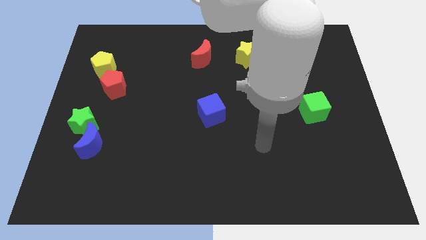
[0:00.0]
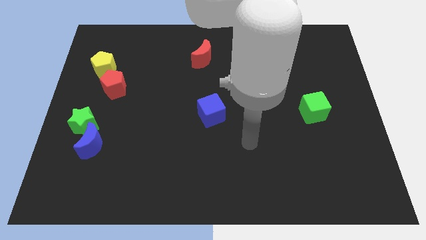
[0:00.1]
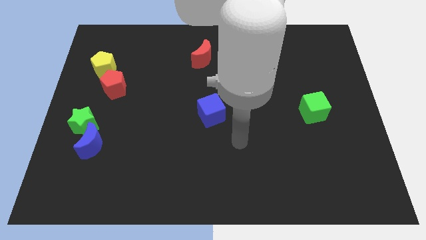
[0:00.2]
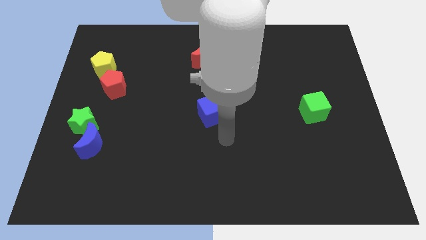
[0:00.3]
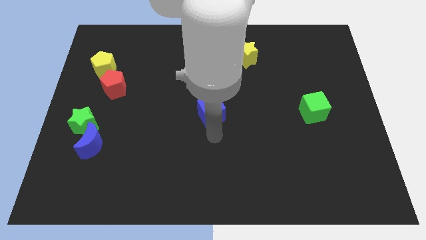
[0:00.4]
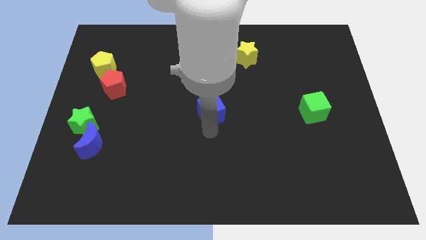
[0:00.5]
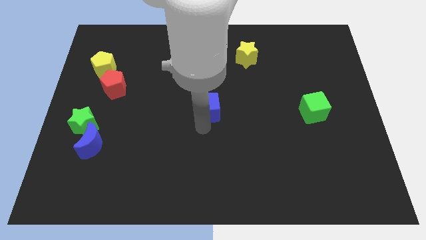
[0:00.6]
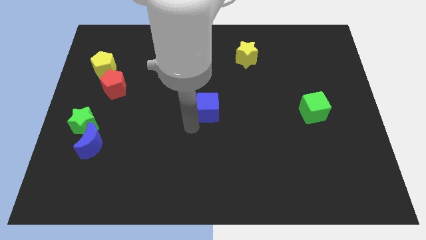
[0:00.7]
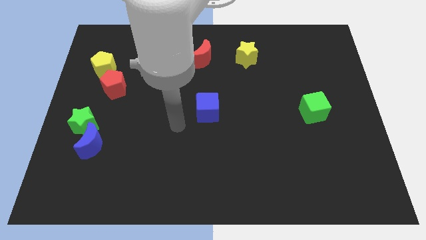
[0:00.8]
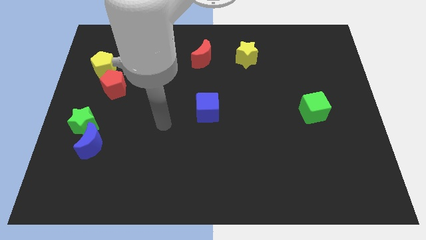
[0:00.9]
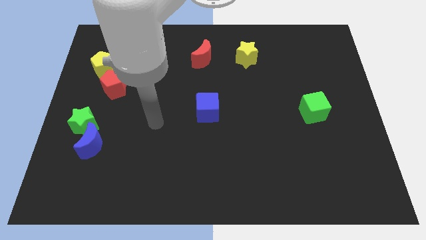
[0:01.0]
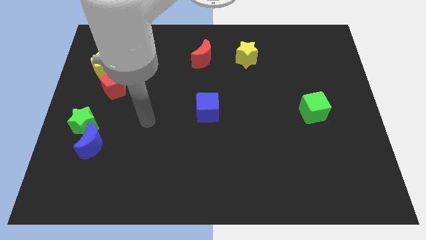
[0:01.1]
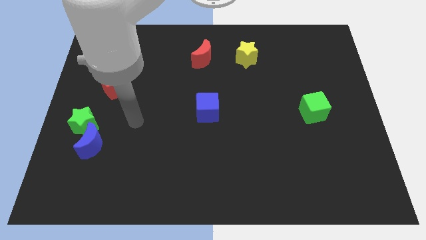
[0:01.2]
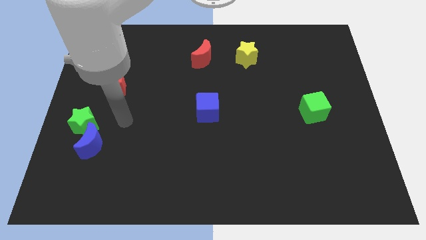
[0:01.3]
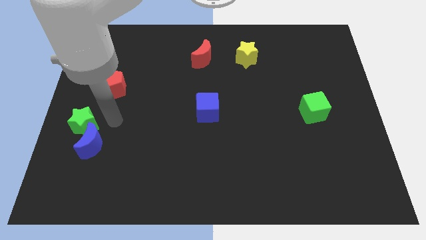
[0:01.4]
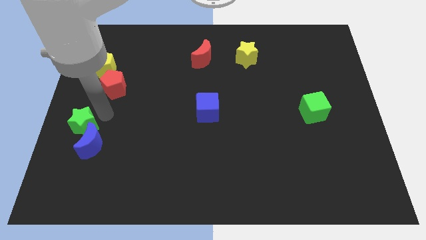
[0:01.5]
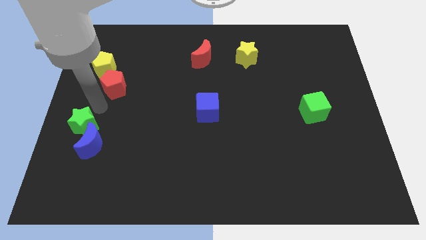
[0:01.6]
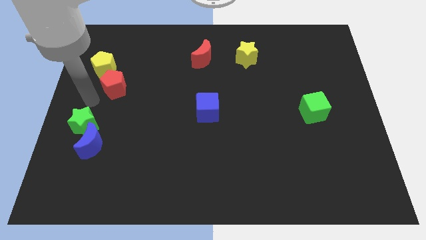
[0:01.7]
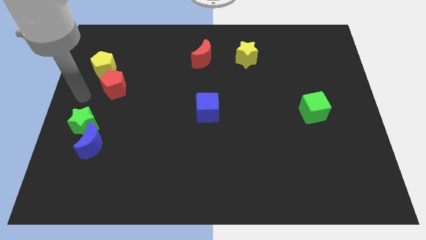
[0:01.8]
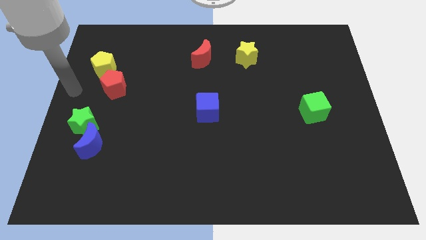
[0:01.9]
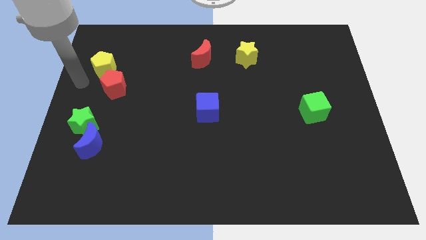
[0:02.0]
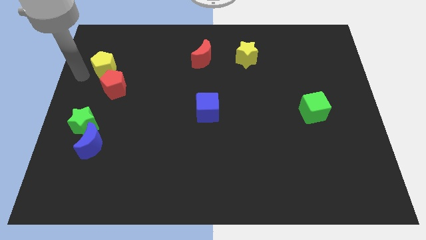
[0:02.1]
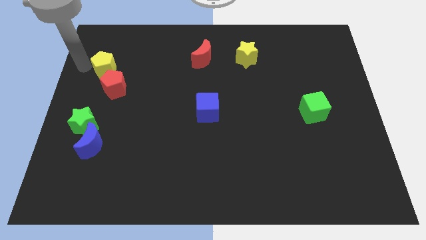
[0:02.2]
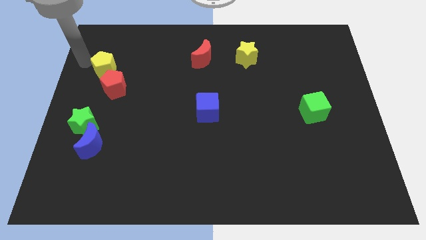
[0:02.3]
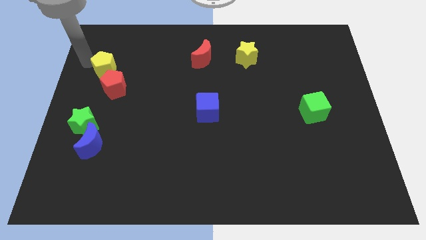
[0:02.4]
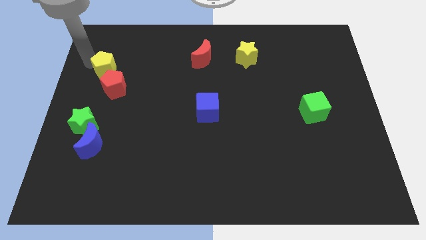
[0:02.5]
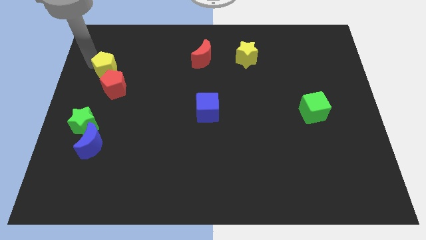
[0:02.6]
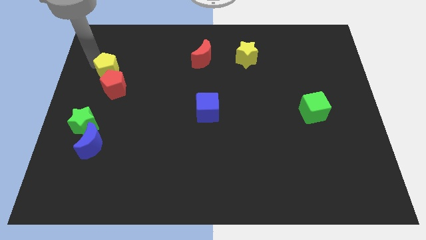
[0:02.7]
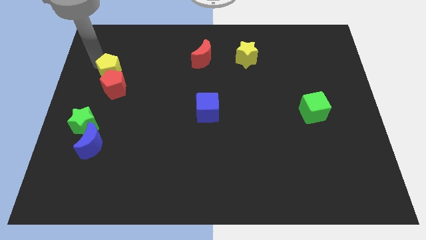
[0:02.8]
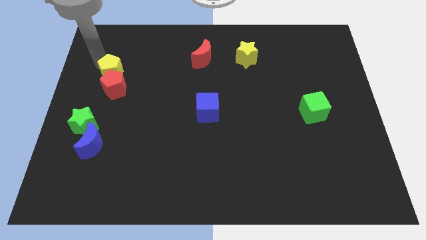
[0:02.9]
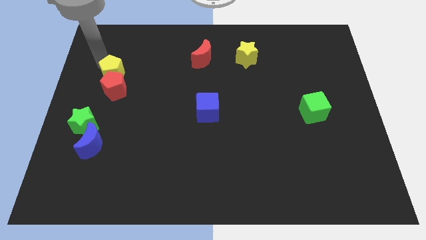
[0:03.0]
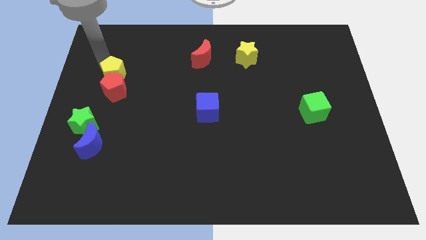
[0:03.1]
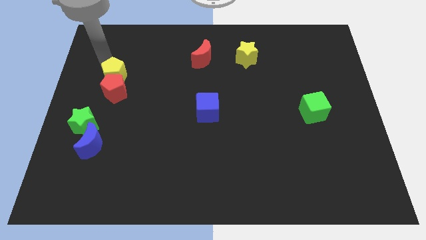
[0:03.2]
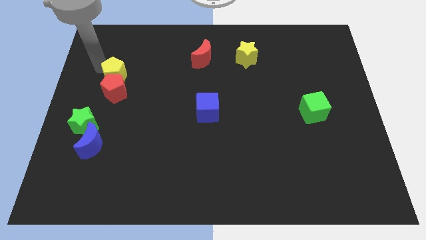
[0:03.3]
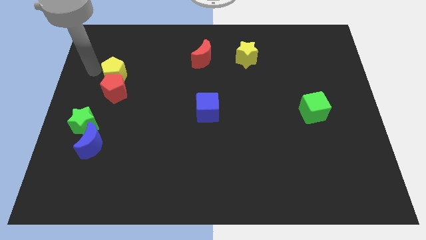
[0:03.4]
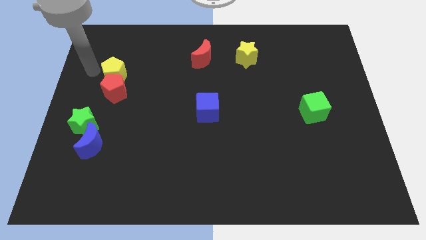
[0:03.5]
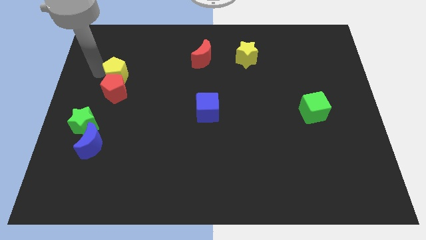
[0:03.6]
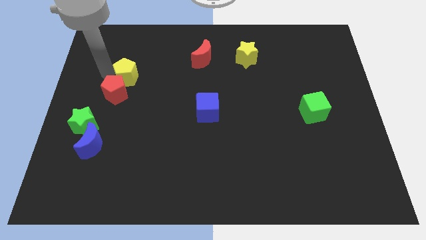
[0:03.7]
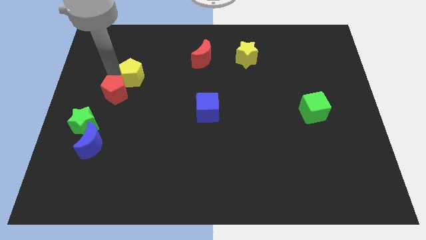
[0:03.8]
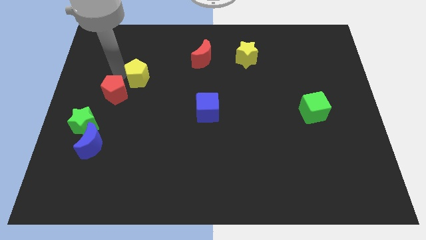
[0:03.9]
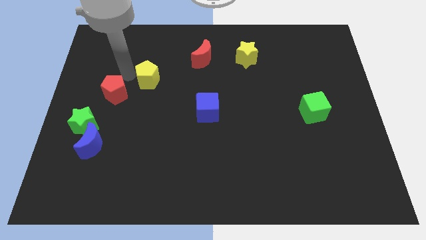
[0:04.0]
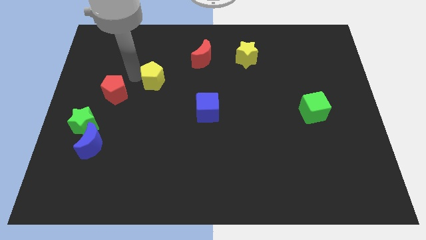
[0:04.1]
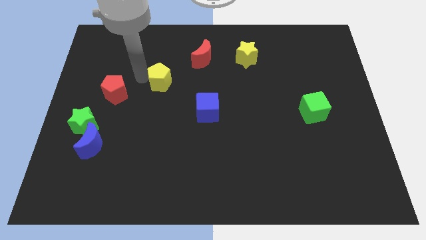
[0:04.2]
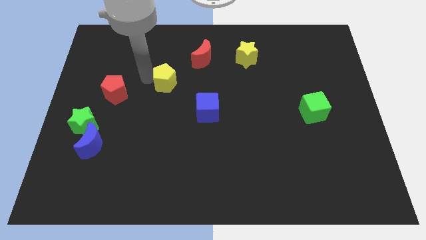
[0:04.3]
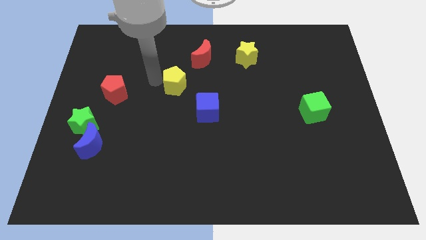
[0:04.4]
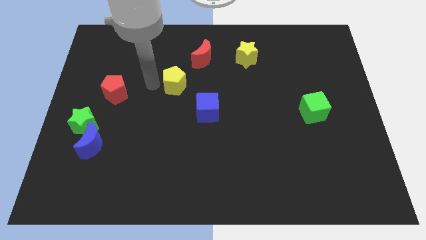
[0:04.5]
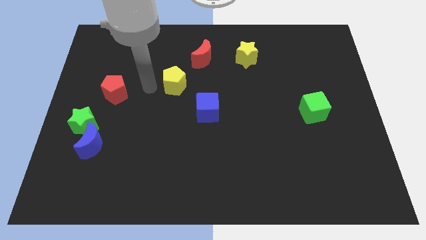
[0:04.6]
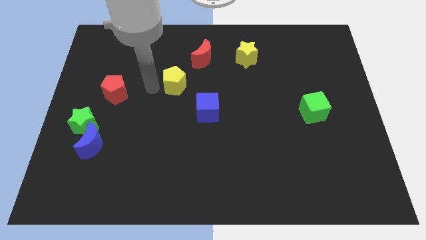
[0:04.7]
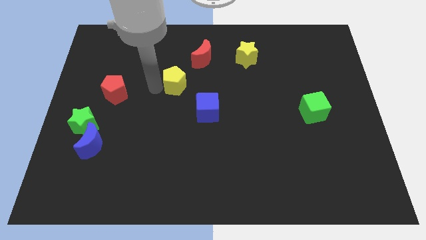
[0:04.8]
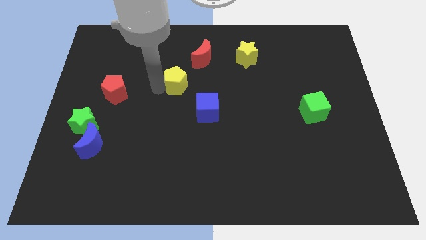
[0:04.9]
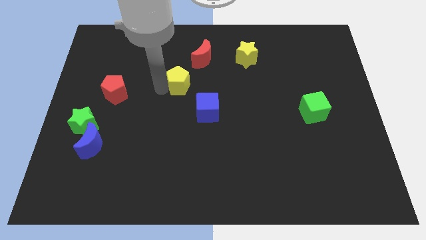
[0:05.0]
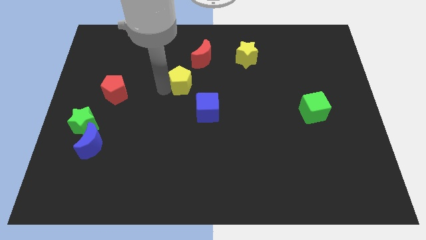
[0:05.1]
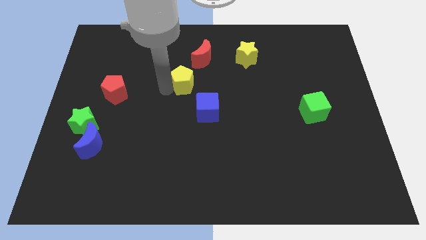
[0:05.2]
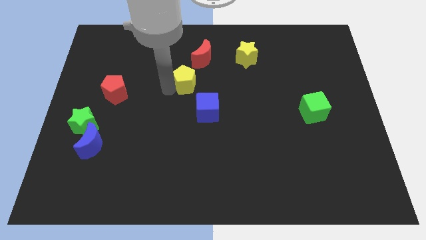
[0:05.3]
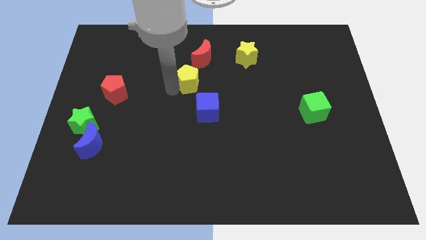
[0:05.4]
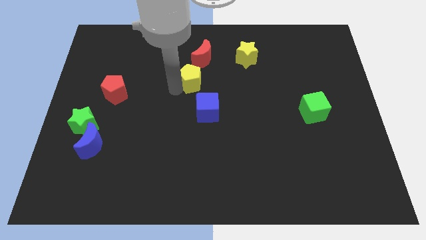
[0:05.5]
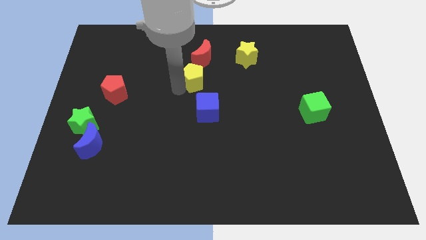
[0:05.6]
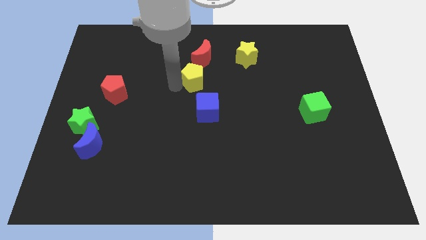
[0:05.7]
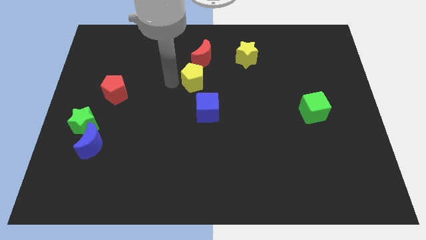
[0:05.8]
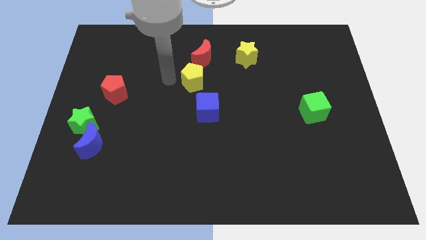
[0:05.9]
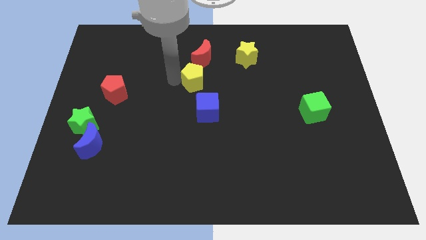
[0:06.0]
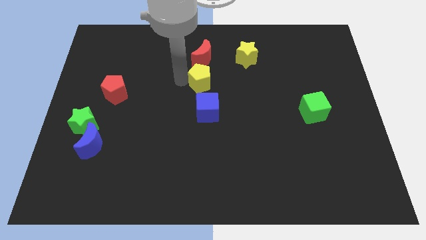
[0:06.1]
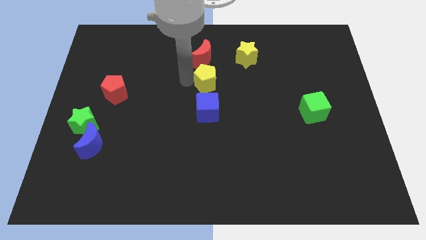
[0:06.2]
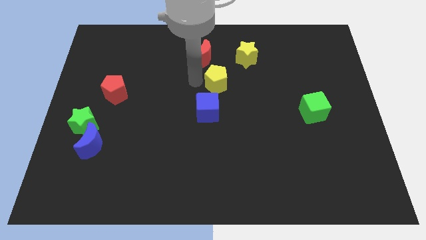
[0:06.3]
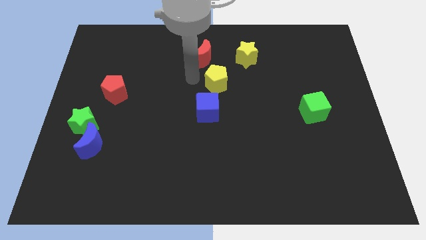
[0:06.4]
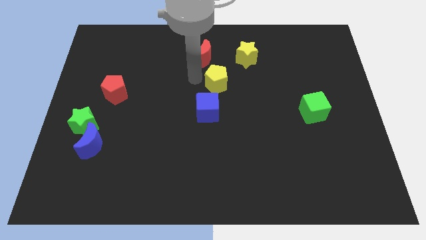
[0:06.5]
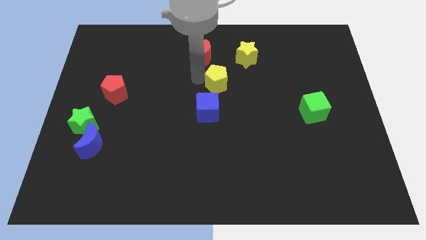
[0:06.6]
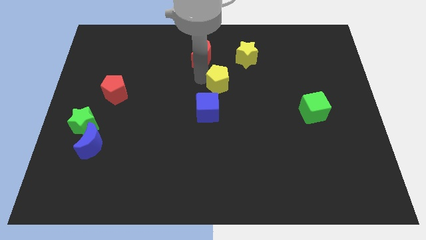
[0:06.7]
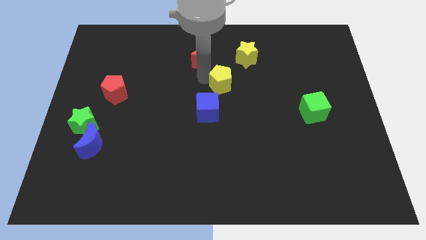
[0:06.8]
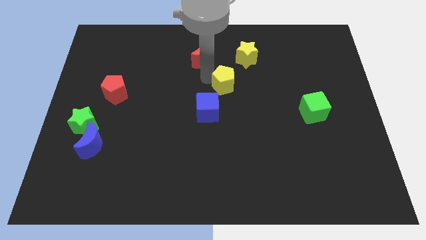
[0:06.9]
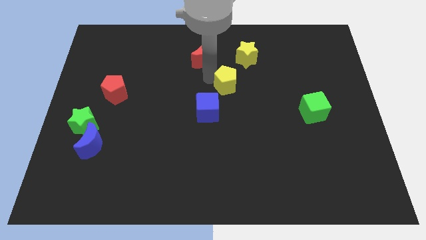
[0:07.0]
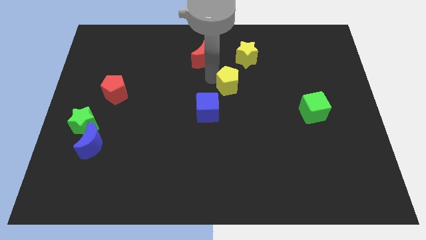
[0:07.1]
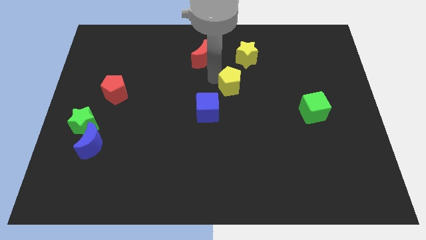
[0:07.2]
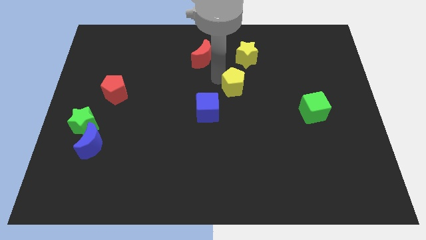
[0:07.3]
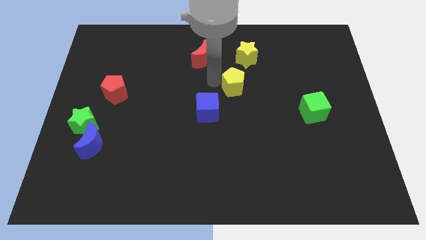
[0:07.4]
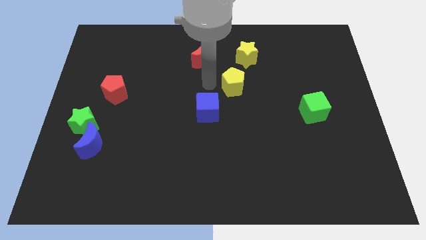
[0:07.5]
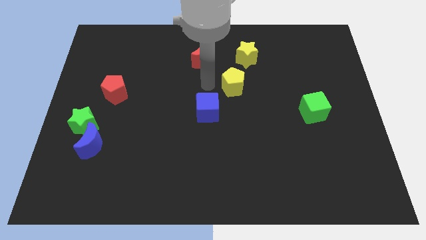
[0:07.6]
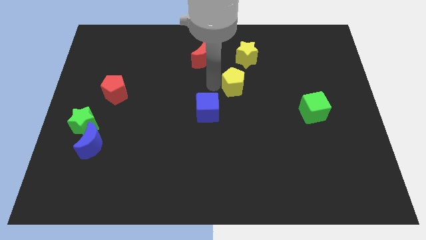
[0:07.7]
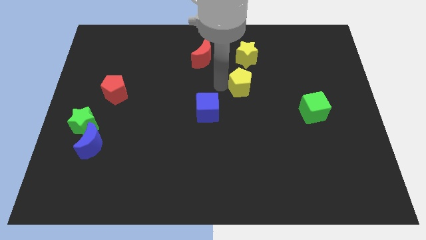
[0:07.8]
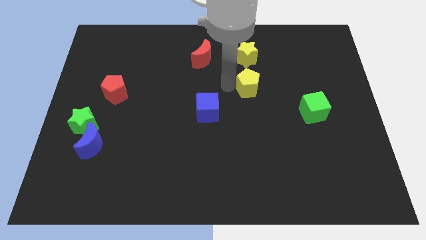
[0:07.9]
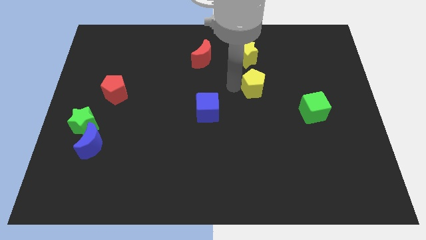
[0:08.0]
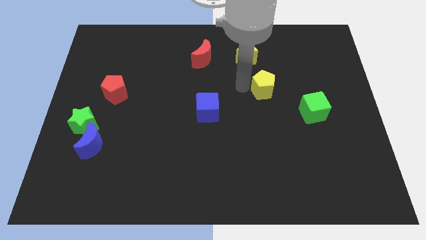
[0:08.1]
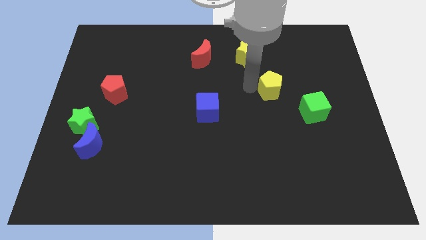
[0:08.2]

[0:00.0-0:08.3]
put the yellow pentagon to the top left side of the green cube
